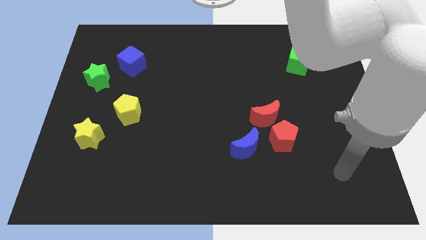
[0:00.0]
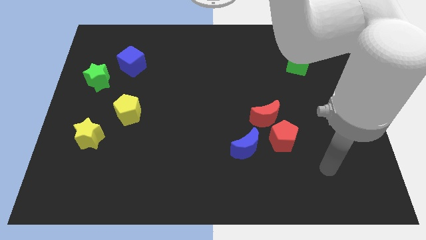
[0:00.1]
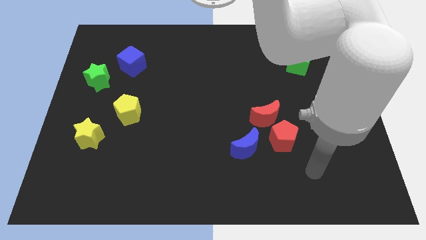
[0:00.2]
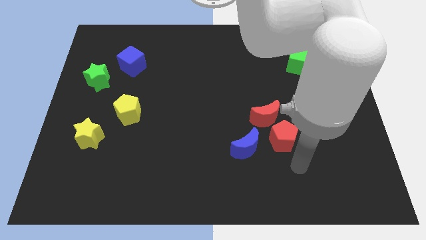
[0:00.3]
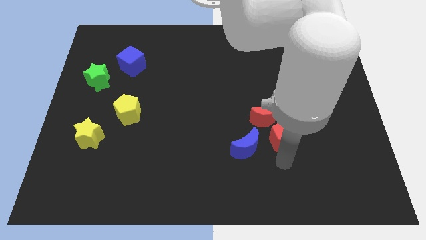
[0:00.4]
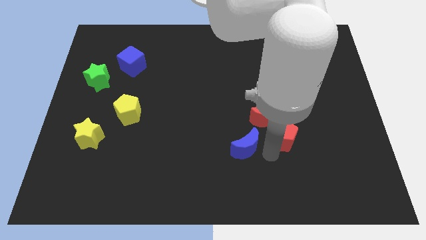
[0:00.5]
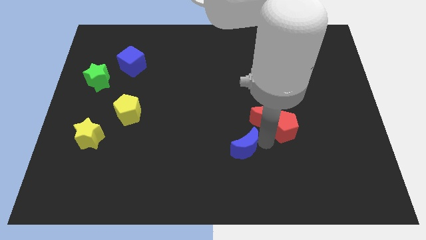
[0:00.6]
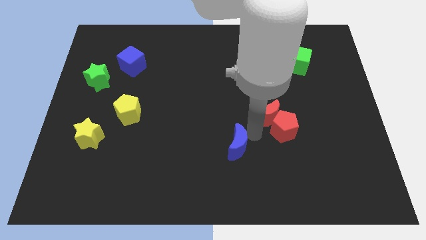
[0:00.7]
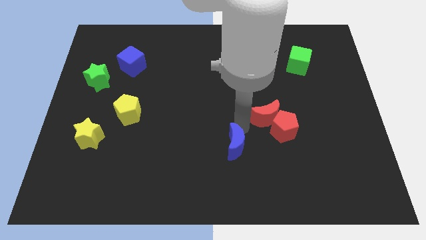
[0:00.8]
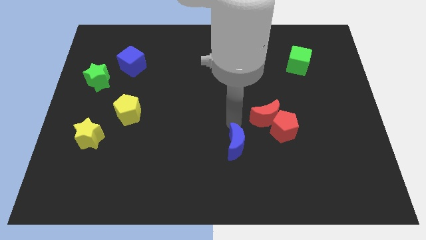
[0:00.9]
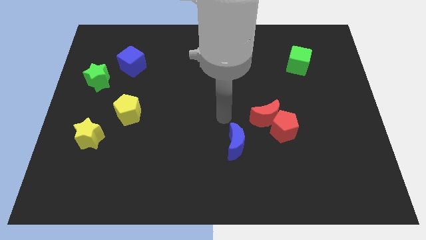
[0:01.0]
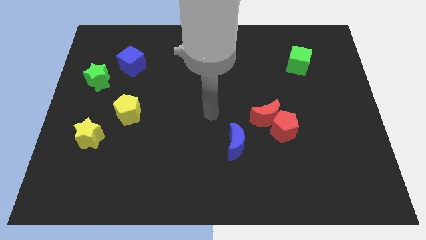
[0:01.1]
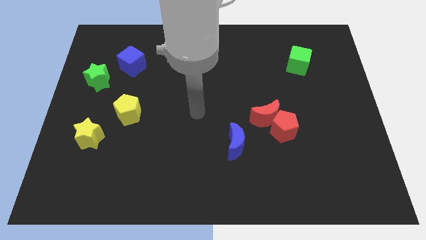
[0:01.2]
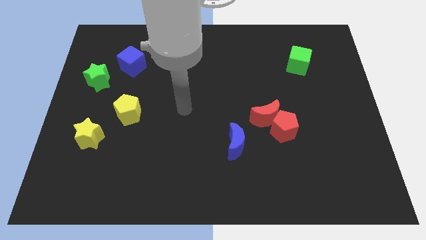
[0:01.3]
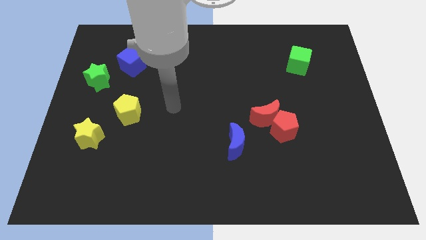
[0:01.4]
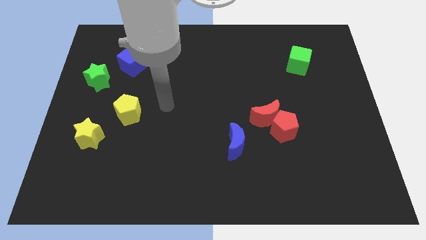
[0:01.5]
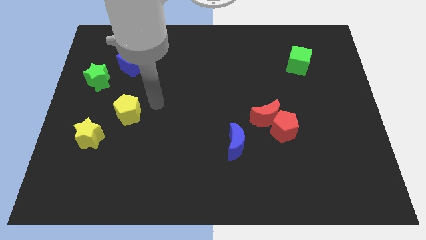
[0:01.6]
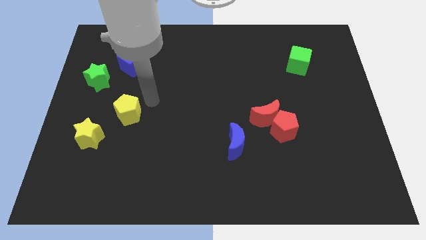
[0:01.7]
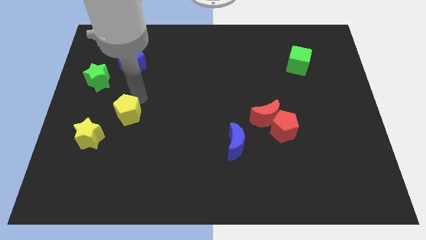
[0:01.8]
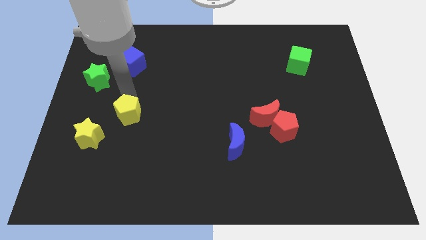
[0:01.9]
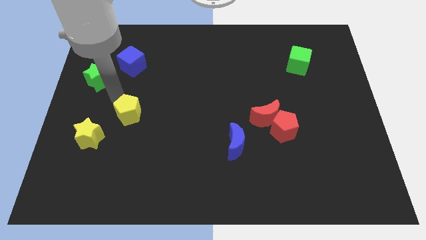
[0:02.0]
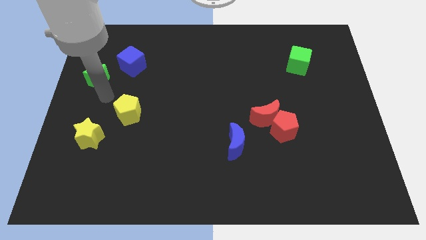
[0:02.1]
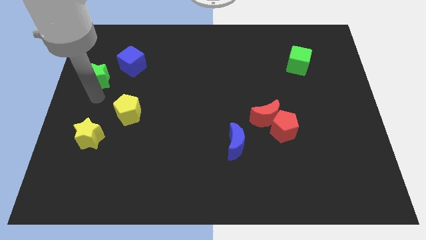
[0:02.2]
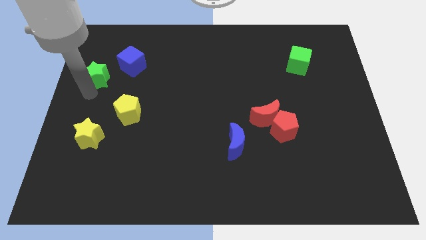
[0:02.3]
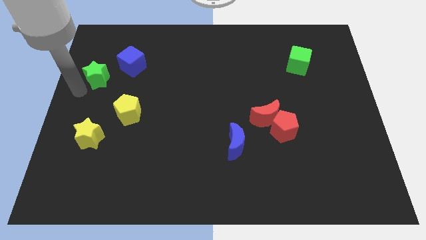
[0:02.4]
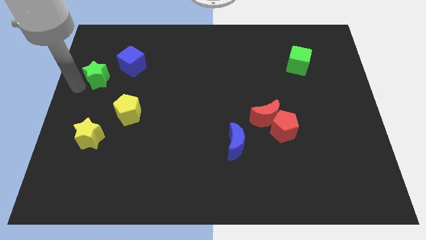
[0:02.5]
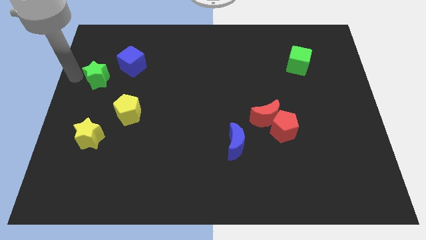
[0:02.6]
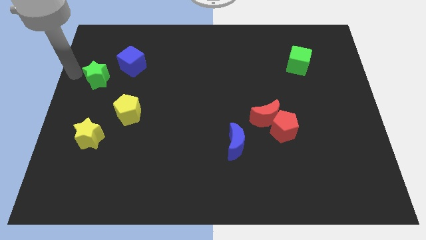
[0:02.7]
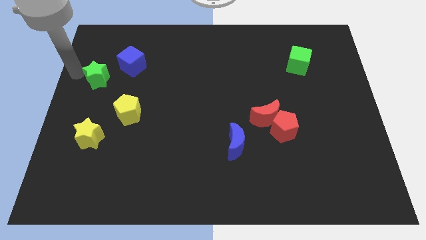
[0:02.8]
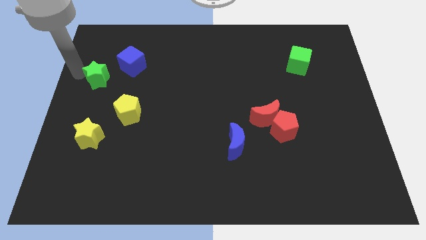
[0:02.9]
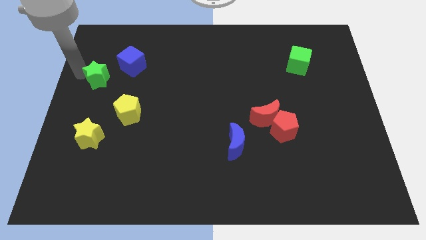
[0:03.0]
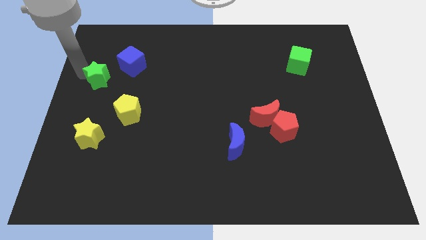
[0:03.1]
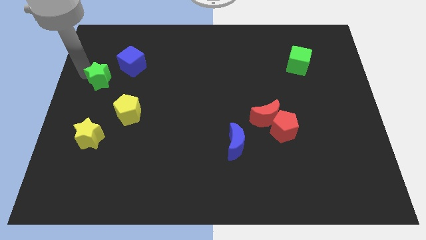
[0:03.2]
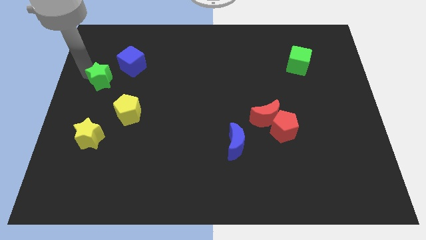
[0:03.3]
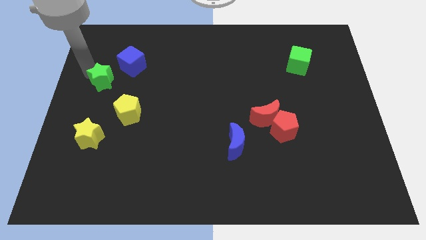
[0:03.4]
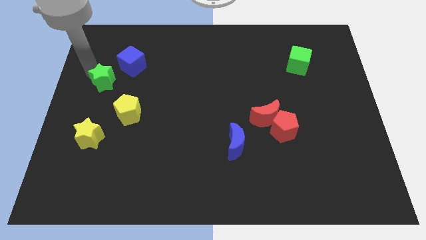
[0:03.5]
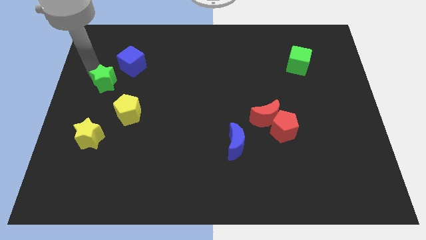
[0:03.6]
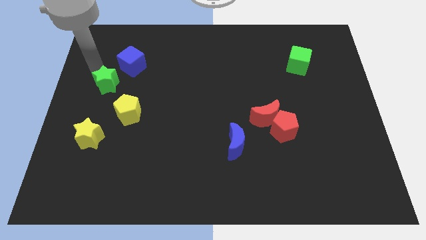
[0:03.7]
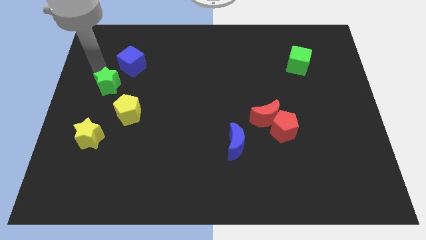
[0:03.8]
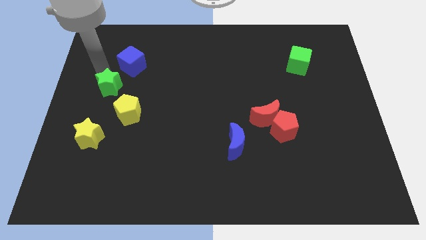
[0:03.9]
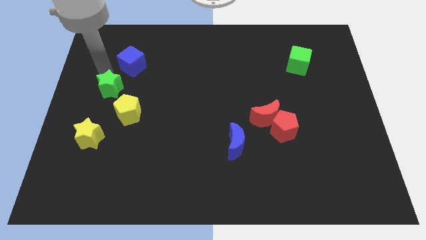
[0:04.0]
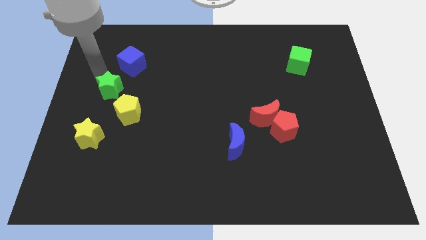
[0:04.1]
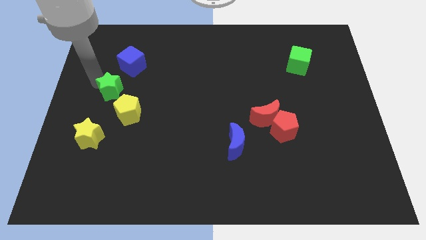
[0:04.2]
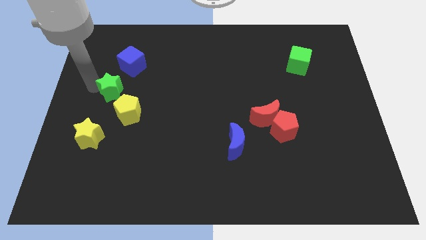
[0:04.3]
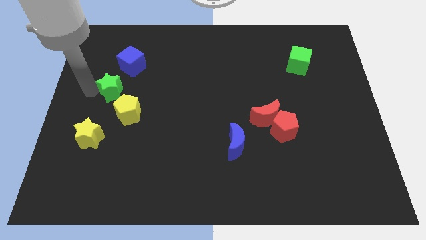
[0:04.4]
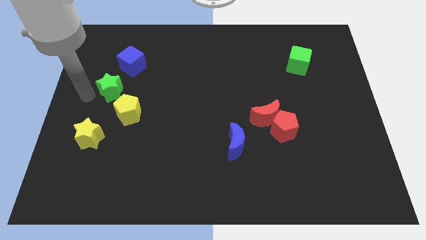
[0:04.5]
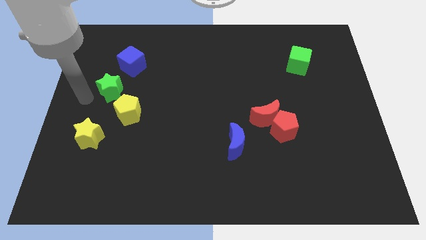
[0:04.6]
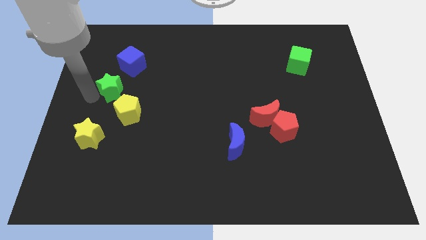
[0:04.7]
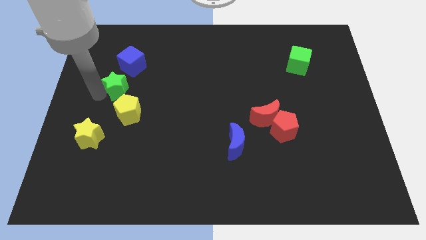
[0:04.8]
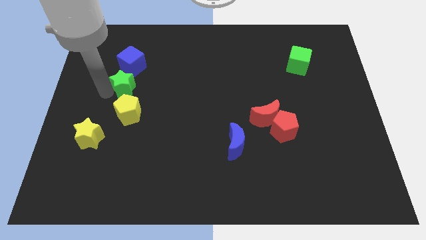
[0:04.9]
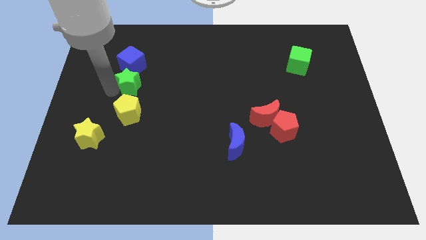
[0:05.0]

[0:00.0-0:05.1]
slightly slide the green star right

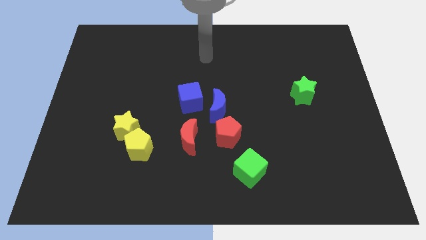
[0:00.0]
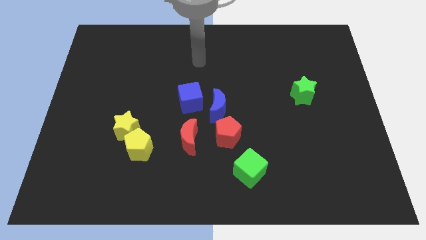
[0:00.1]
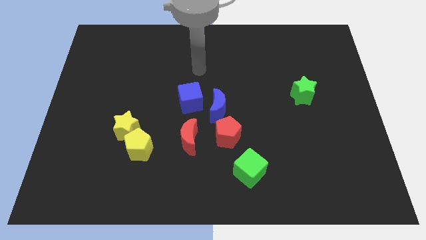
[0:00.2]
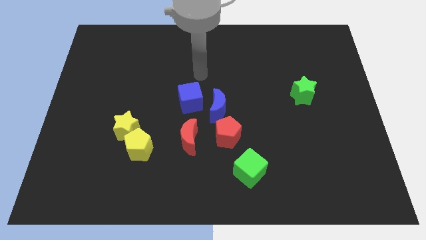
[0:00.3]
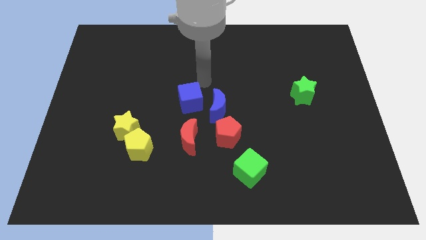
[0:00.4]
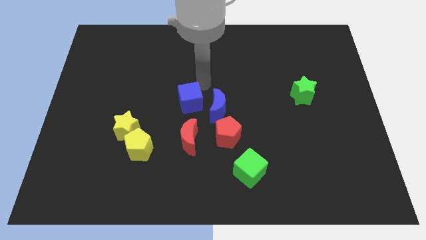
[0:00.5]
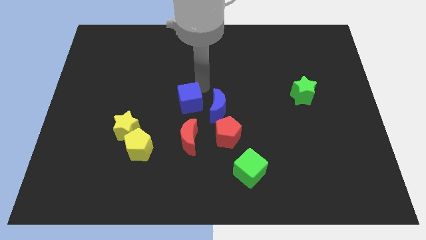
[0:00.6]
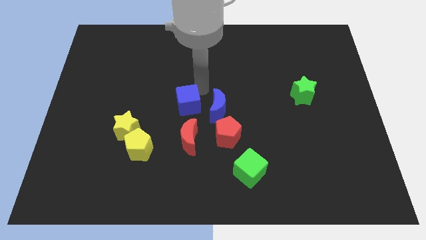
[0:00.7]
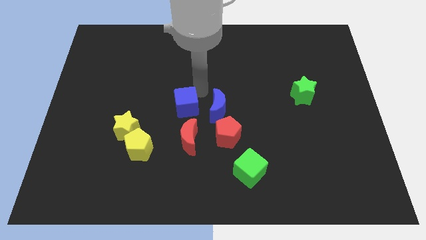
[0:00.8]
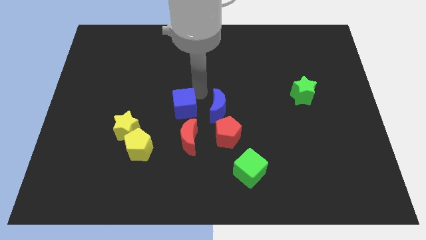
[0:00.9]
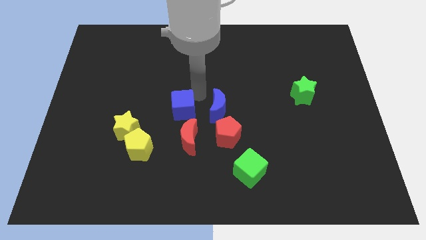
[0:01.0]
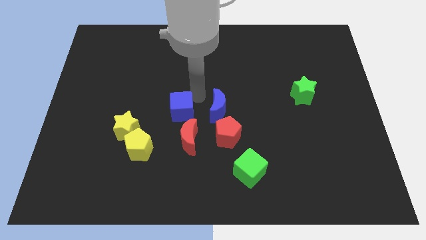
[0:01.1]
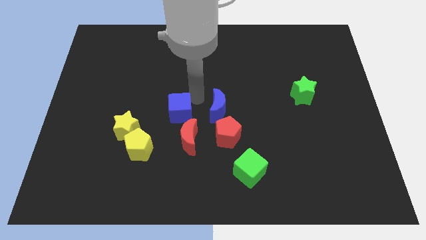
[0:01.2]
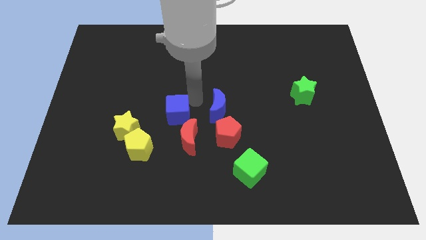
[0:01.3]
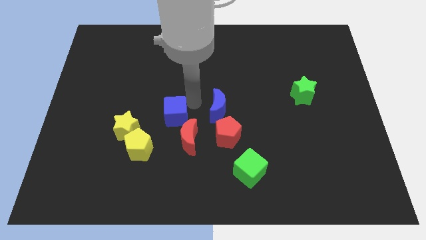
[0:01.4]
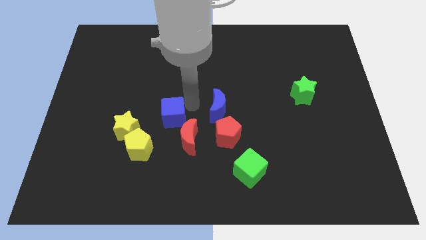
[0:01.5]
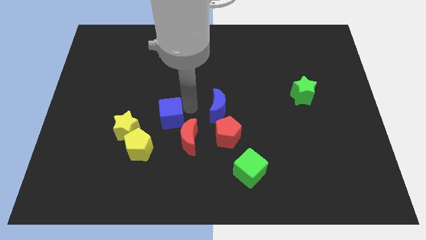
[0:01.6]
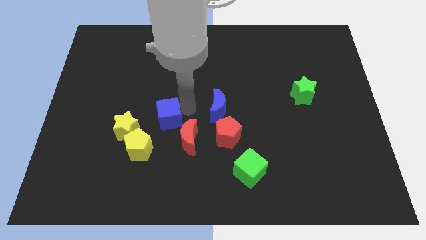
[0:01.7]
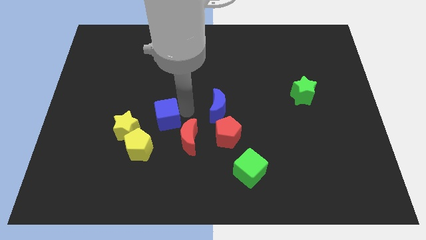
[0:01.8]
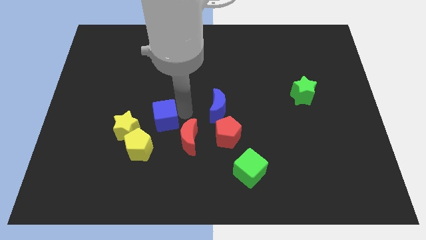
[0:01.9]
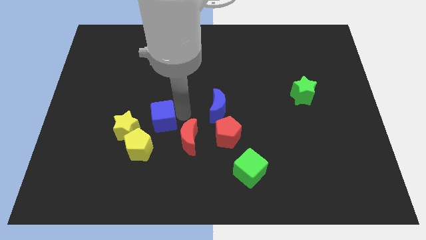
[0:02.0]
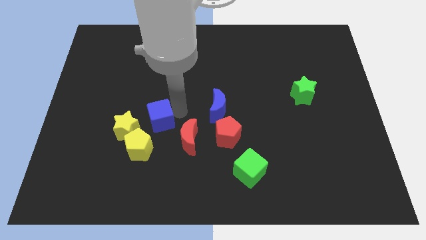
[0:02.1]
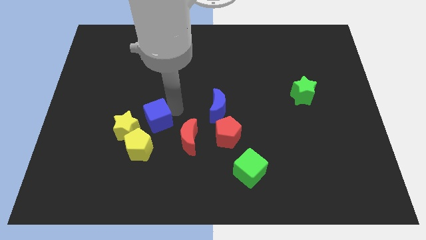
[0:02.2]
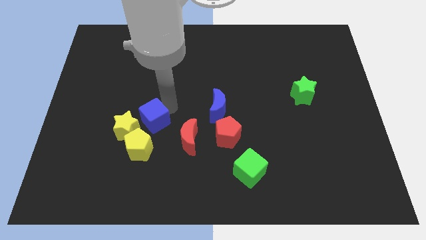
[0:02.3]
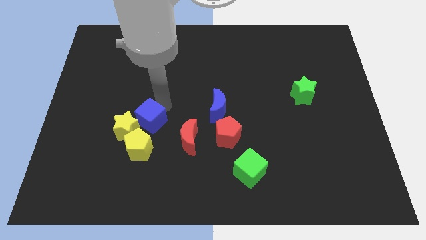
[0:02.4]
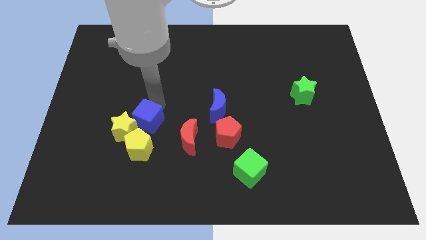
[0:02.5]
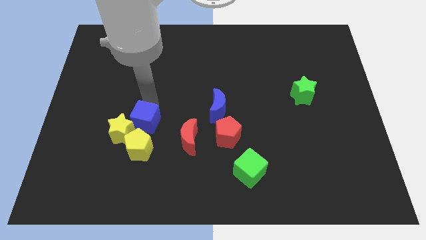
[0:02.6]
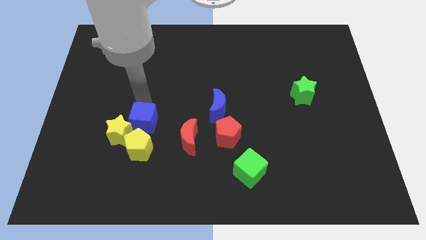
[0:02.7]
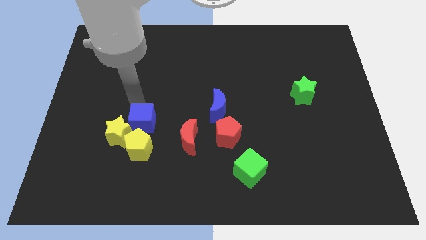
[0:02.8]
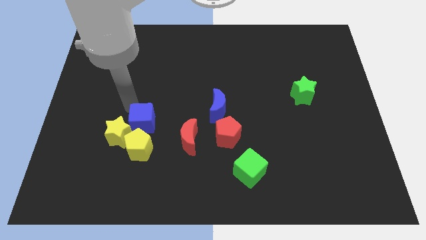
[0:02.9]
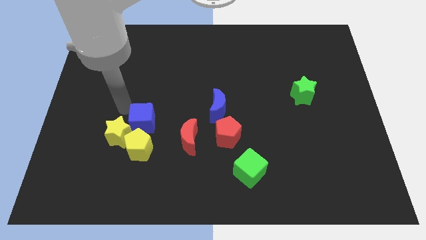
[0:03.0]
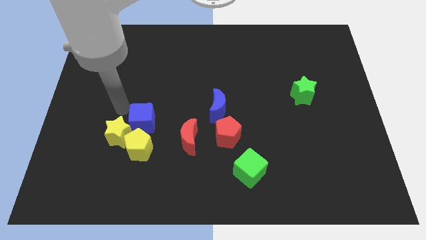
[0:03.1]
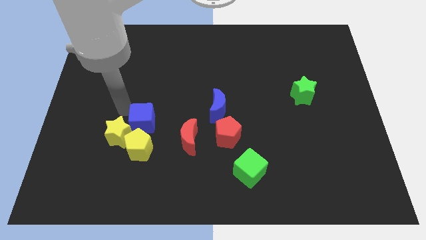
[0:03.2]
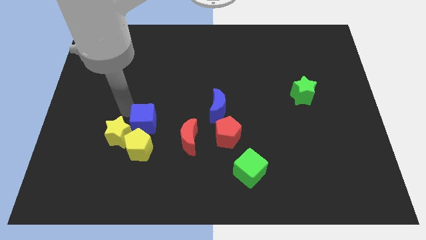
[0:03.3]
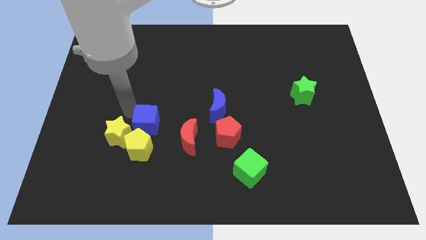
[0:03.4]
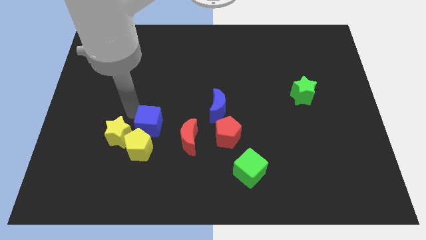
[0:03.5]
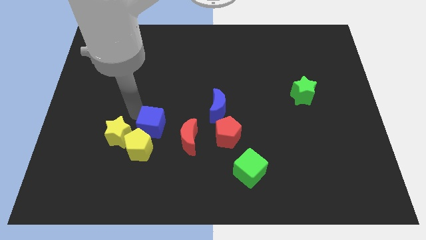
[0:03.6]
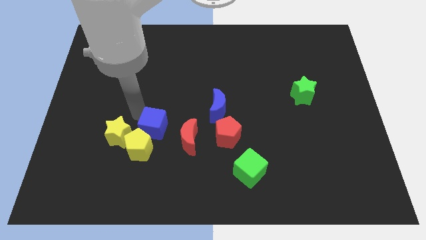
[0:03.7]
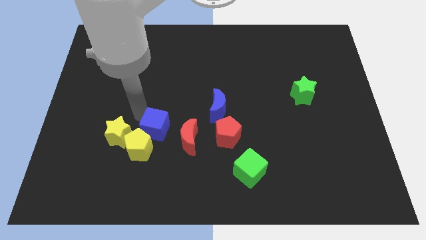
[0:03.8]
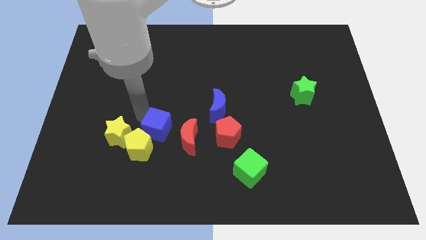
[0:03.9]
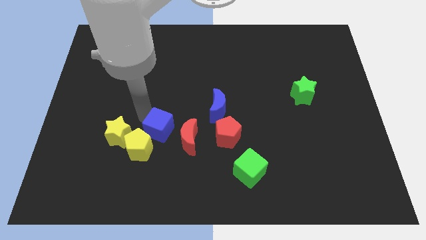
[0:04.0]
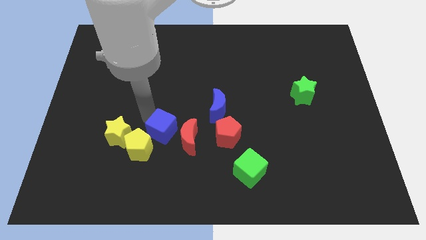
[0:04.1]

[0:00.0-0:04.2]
move the blue cube a little bit down
